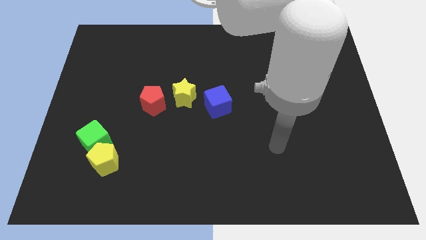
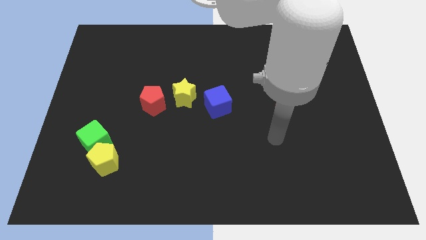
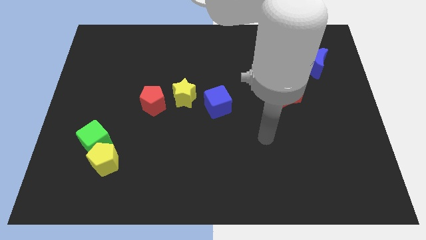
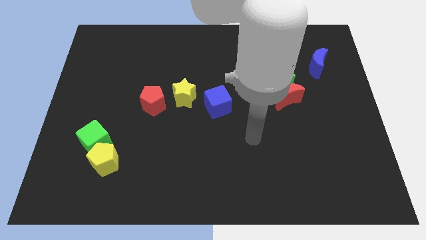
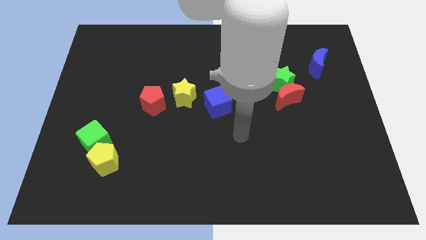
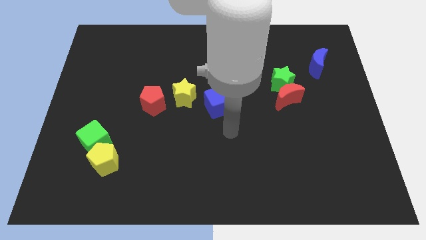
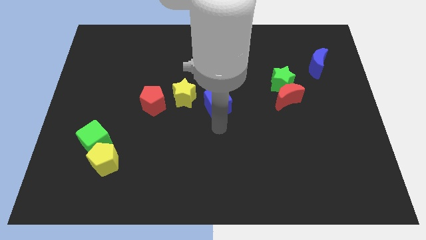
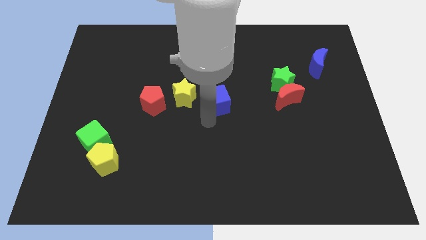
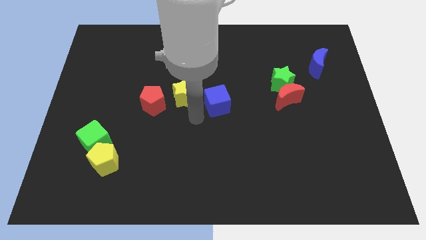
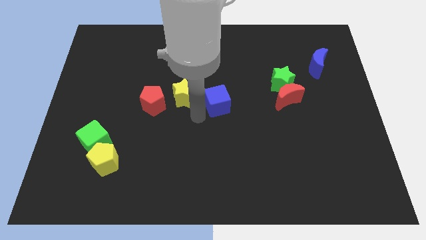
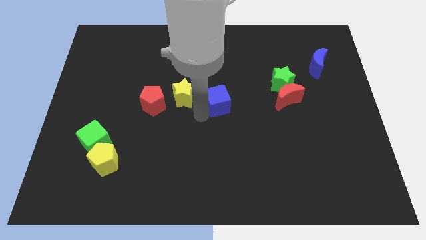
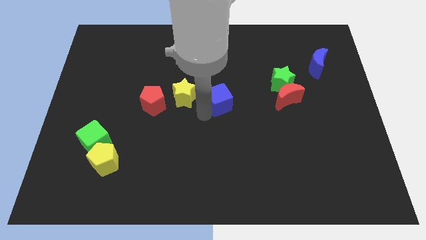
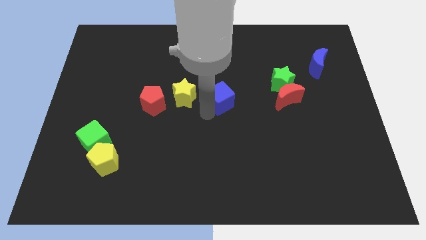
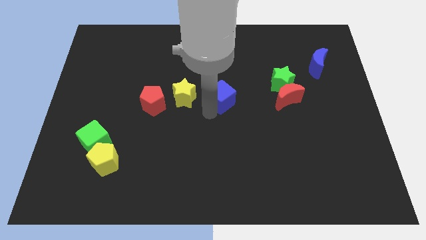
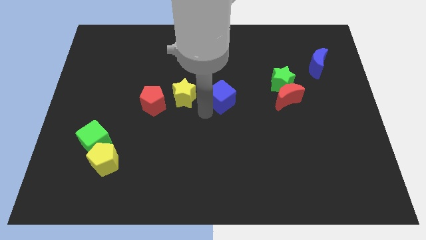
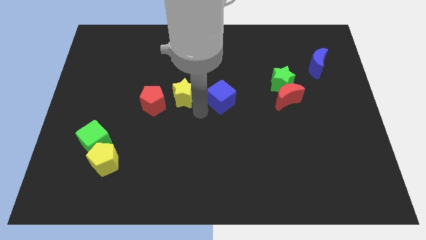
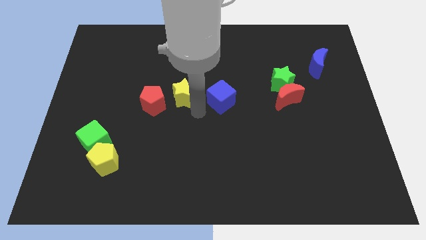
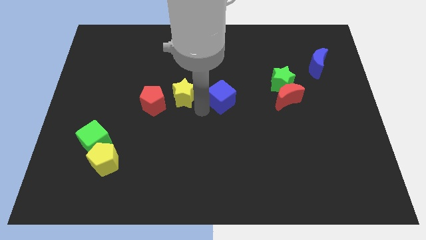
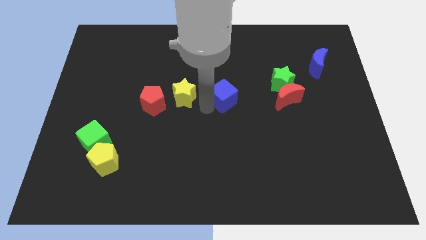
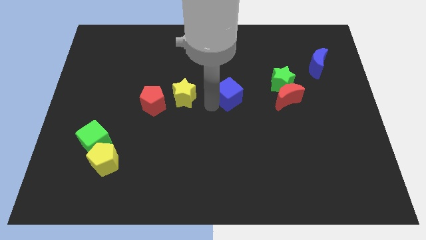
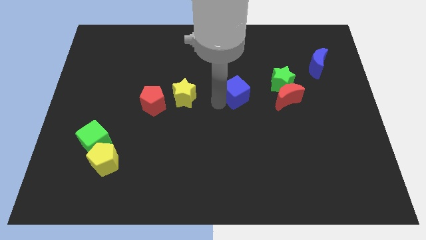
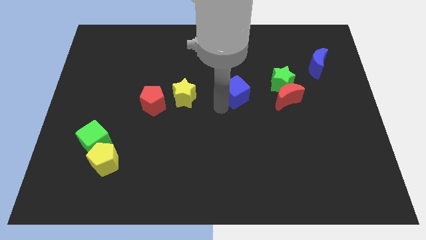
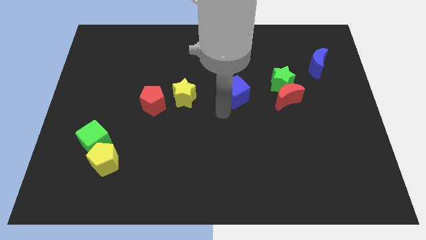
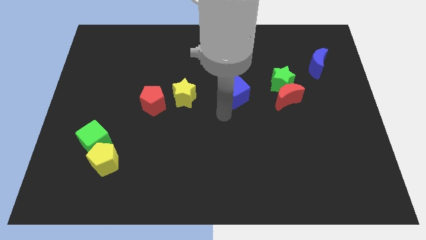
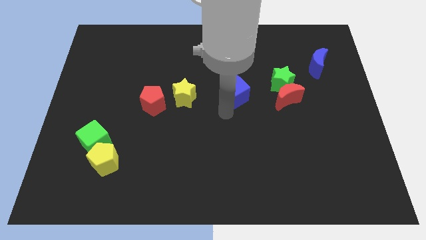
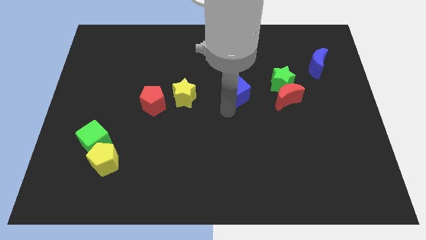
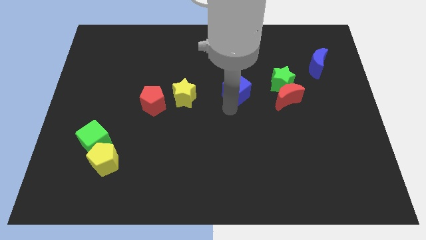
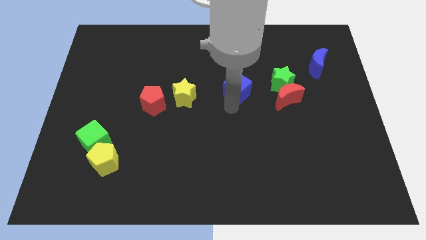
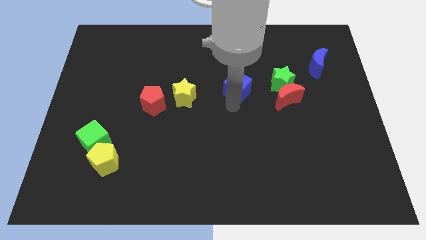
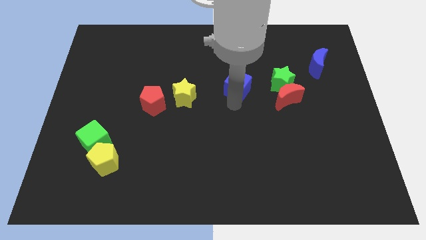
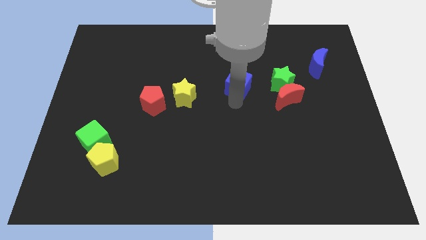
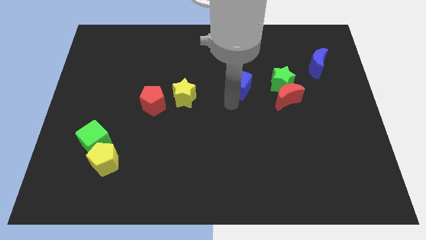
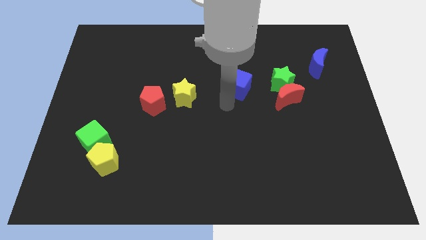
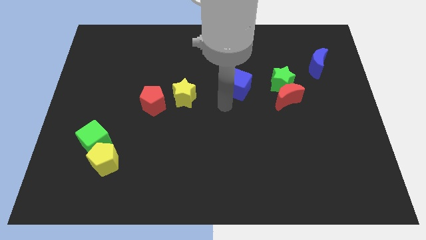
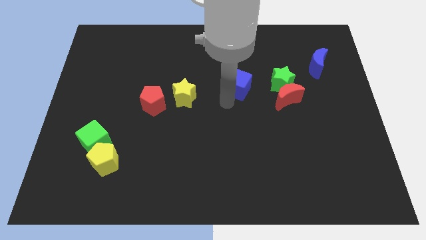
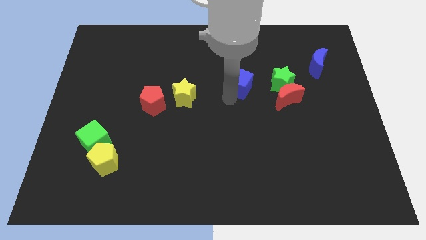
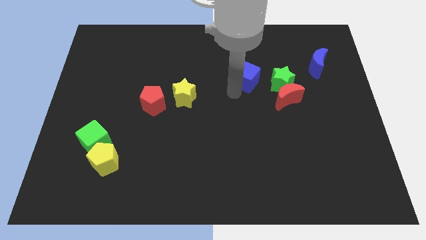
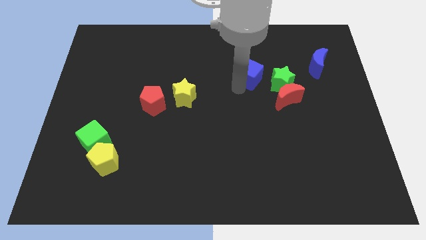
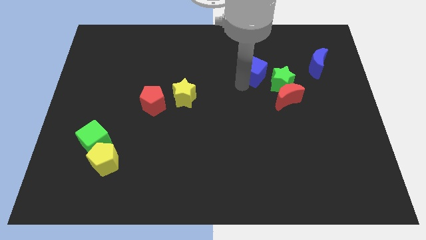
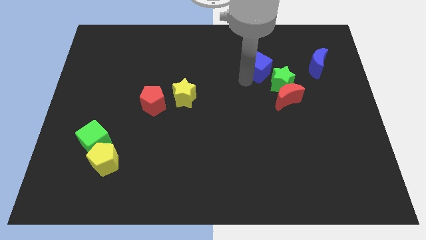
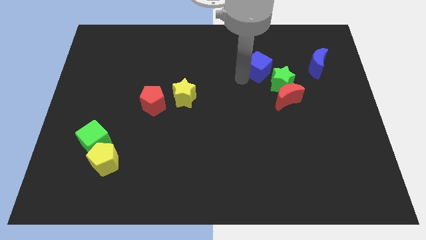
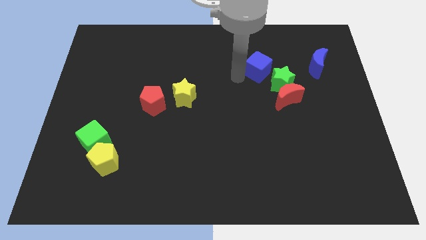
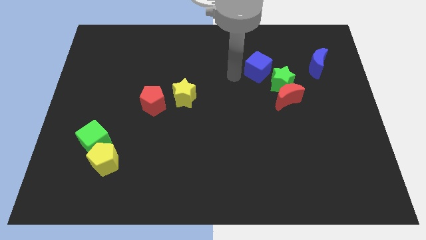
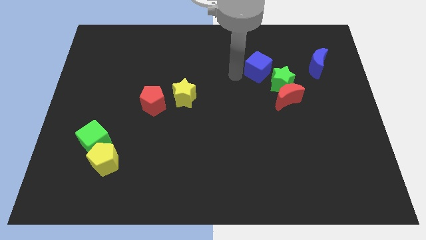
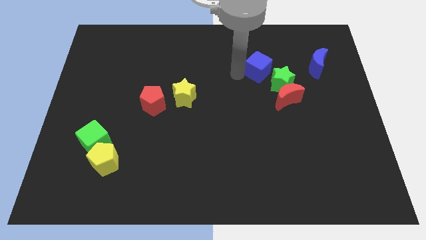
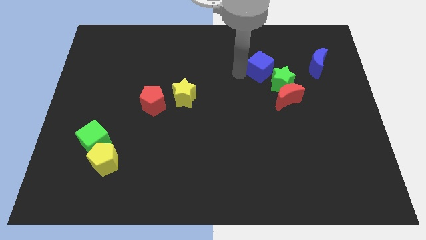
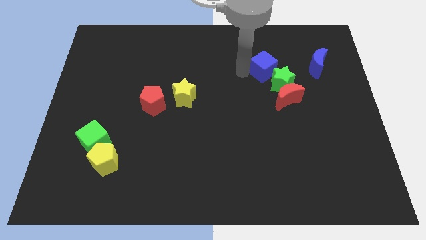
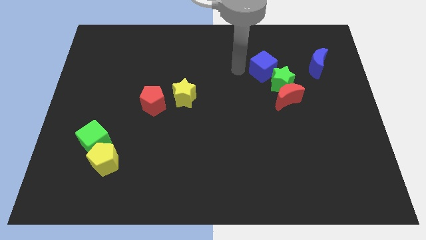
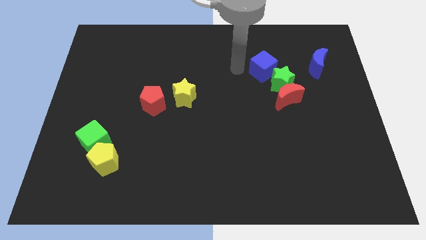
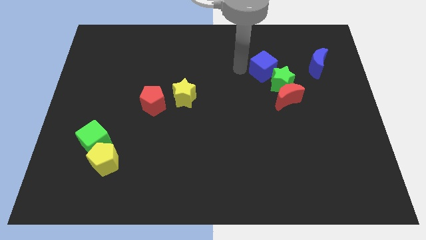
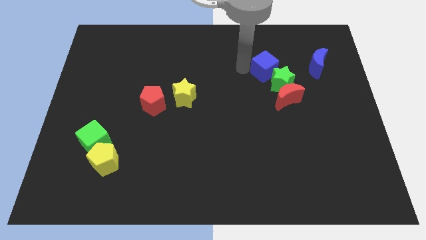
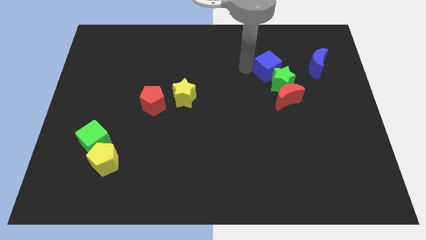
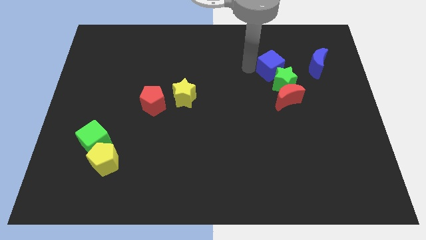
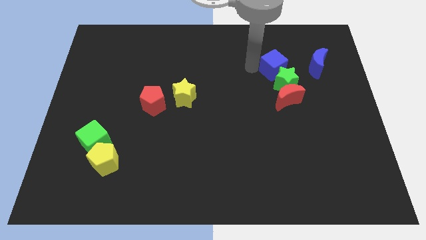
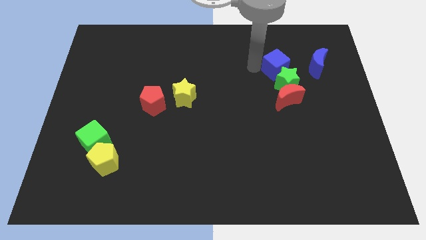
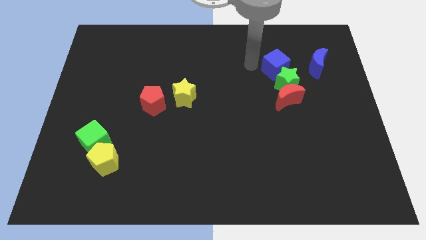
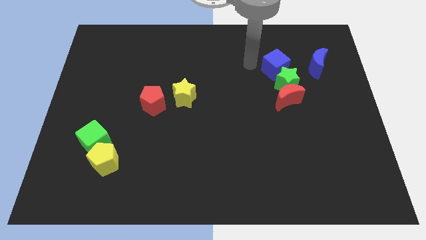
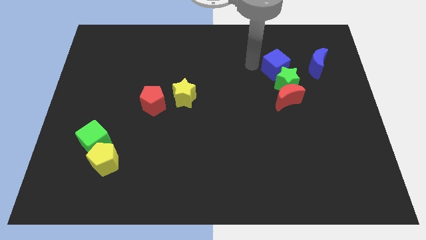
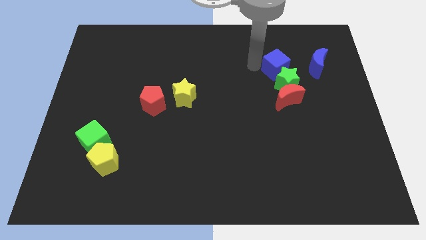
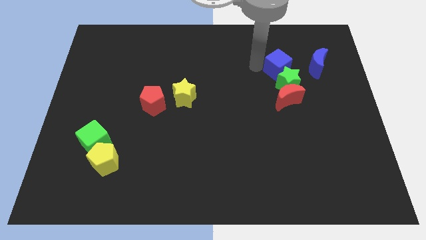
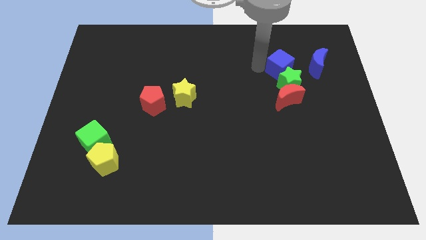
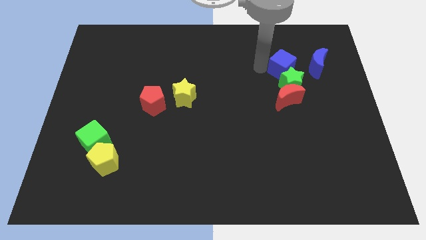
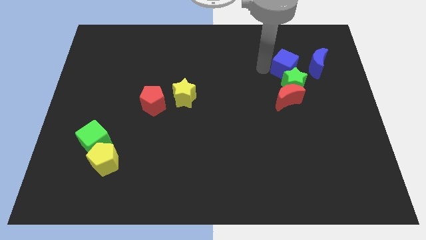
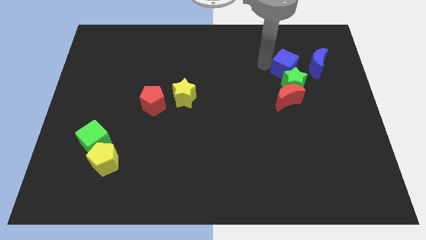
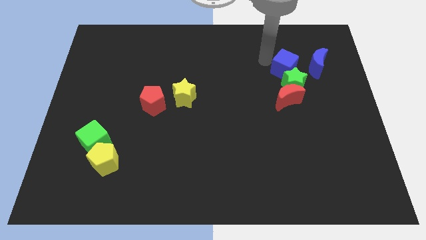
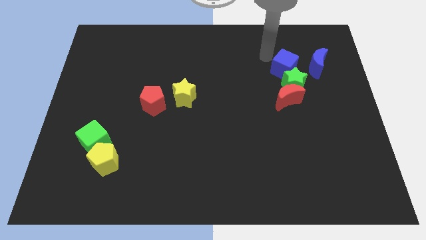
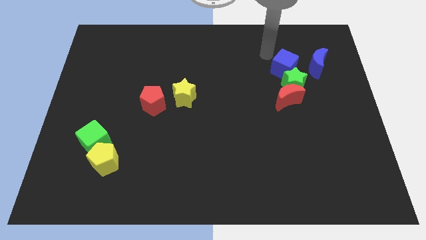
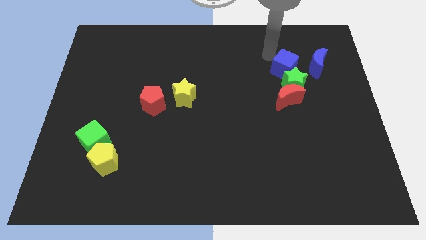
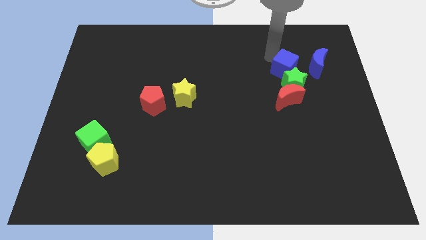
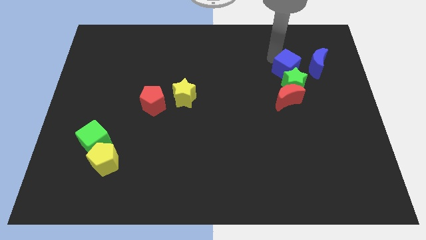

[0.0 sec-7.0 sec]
slide the blue cube diagonally down and to the left of the blue moon

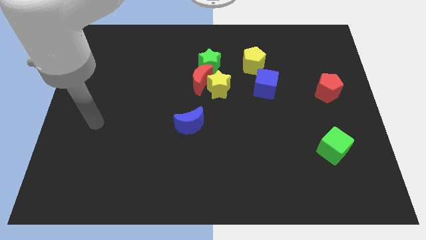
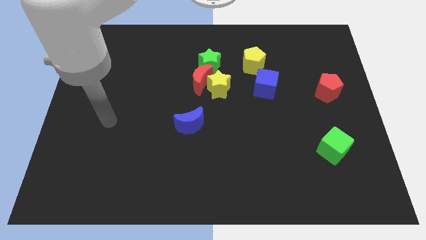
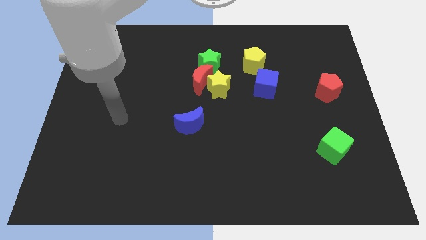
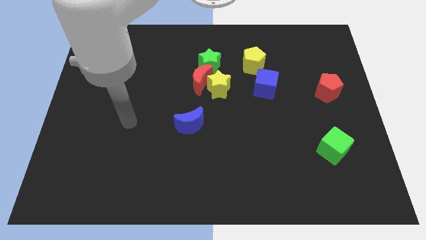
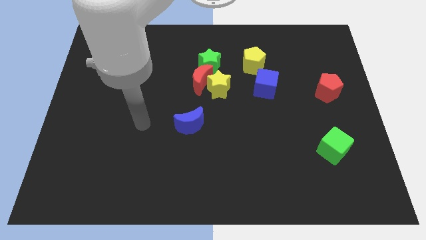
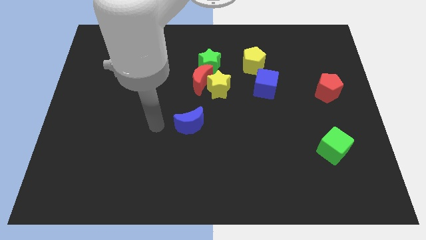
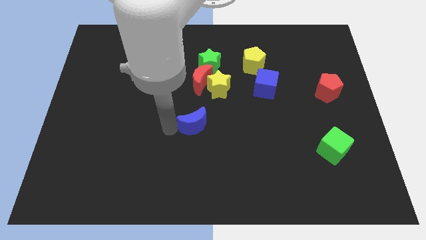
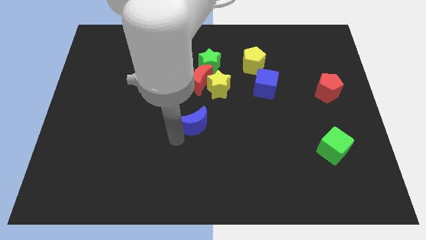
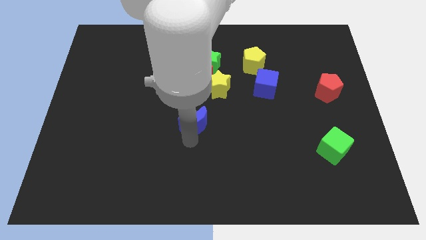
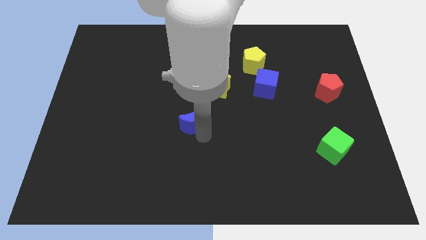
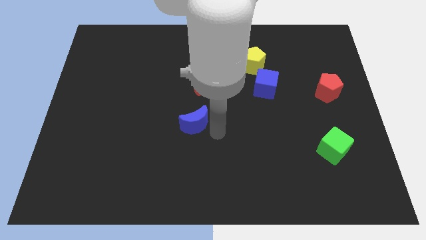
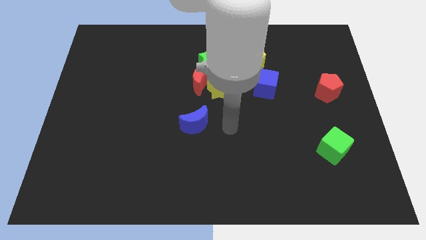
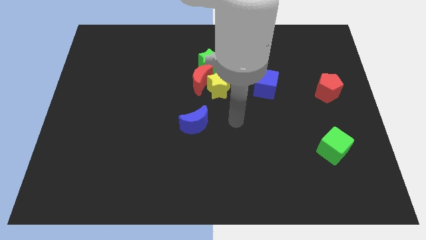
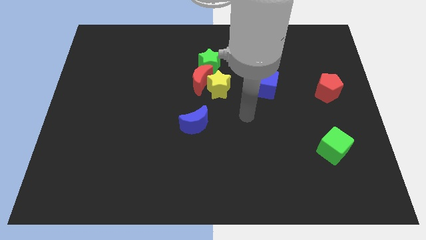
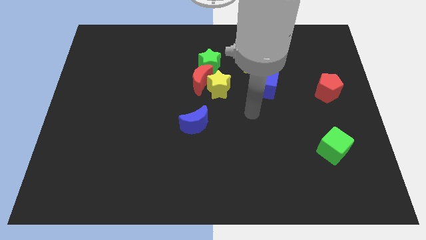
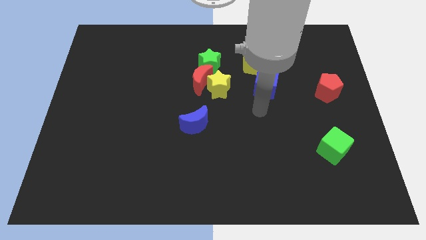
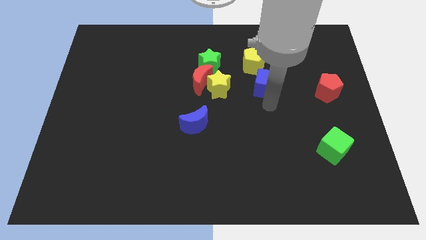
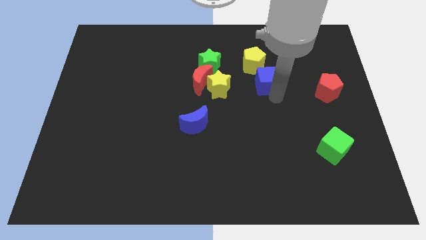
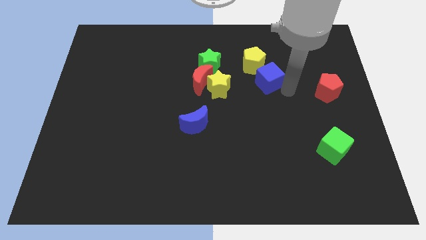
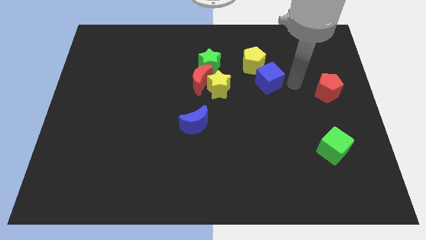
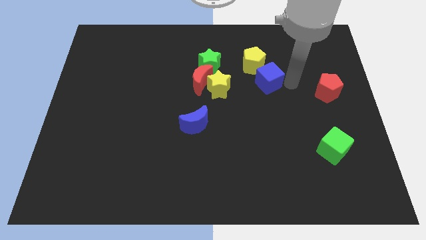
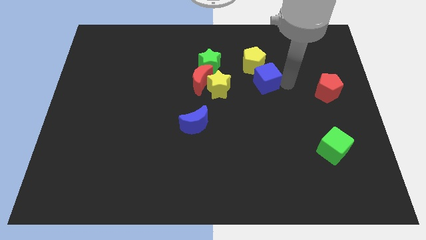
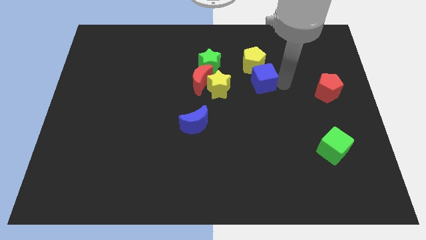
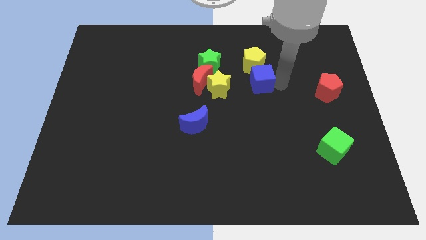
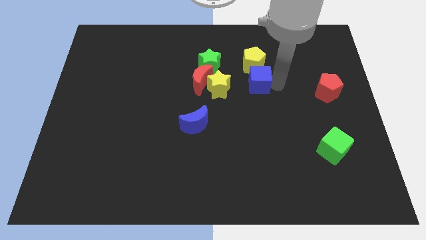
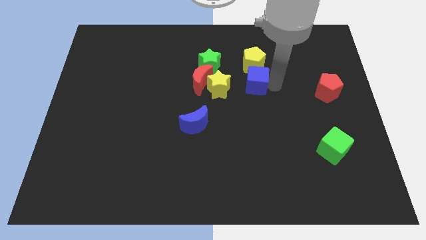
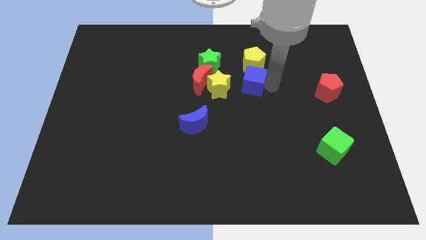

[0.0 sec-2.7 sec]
move the blue cube to the bottom left side of the yellow pentagon
